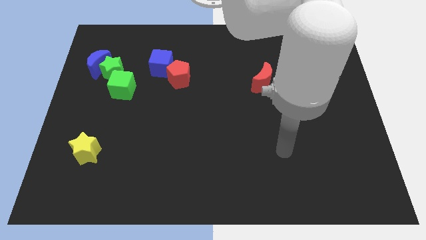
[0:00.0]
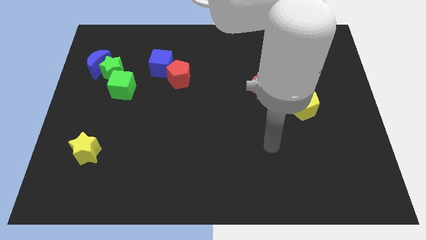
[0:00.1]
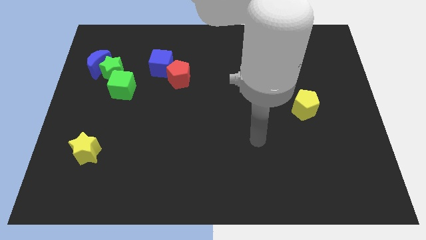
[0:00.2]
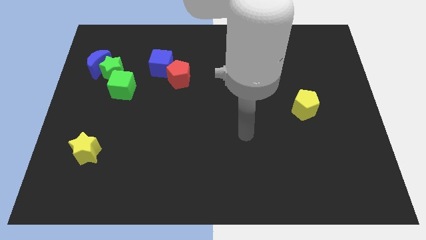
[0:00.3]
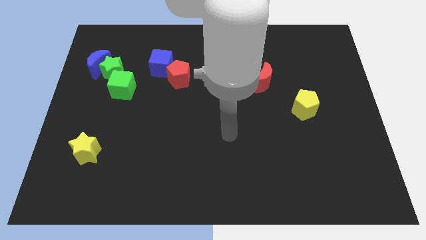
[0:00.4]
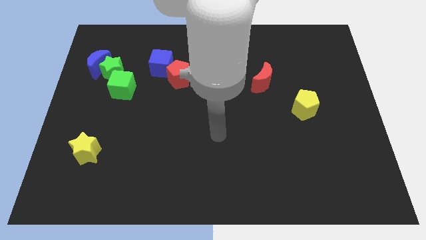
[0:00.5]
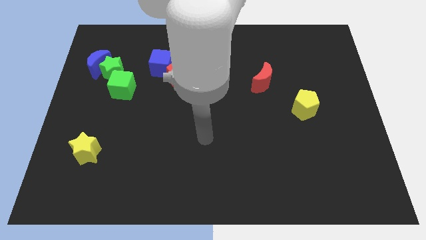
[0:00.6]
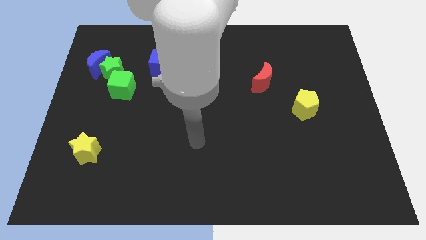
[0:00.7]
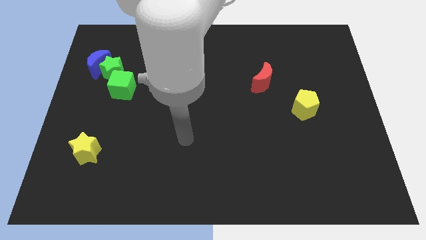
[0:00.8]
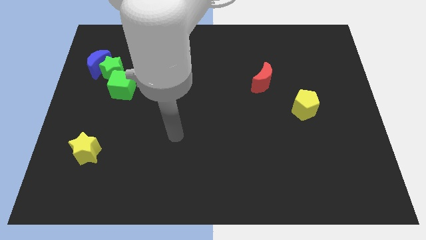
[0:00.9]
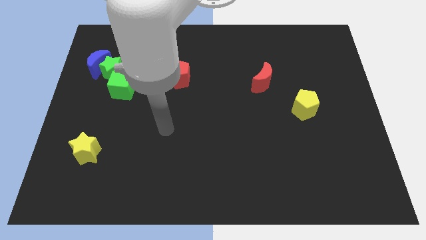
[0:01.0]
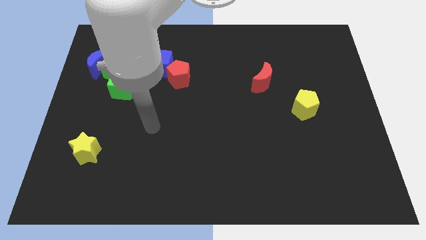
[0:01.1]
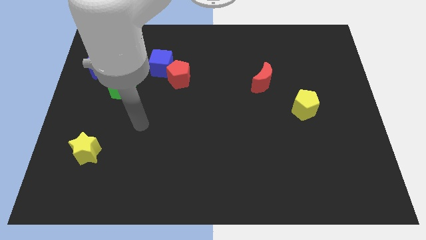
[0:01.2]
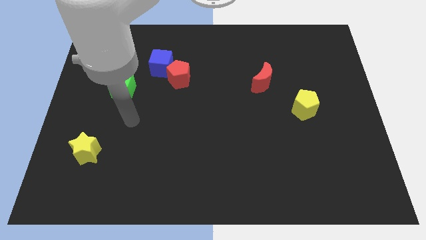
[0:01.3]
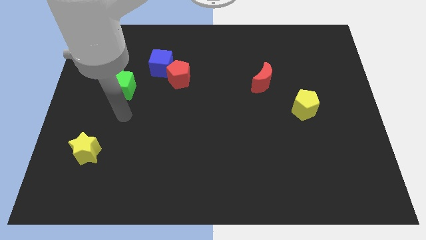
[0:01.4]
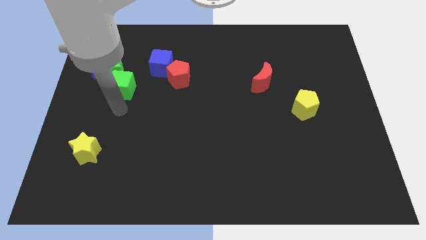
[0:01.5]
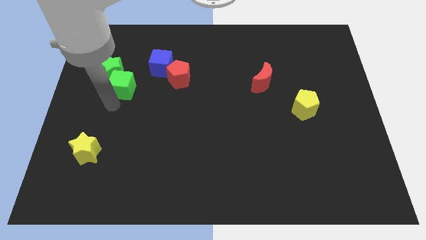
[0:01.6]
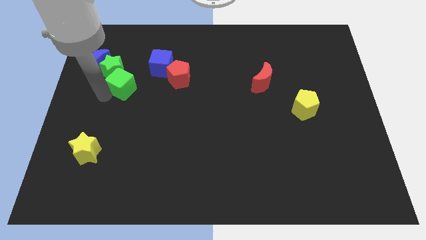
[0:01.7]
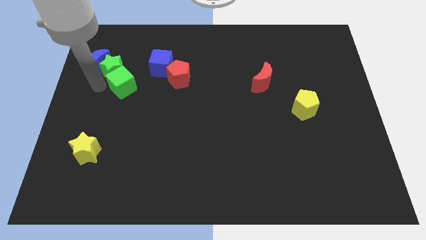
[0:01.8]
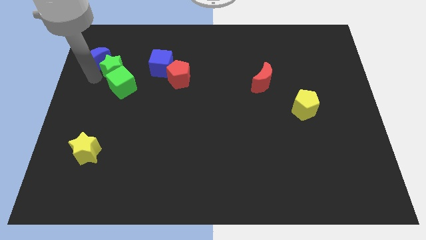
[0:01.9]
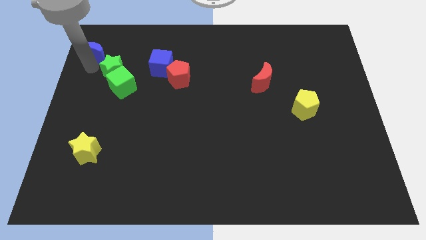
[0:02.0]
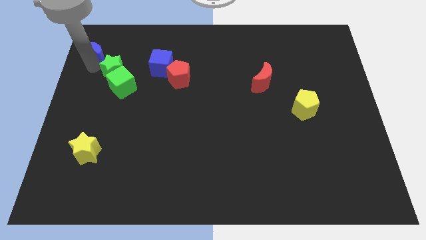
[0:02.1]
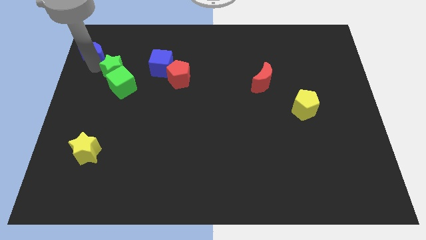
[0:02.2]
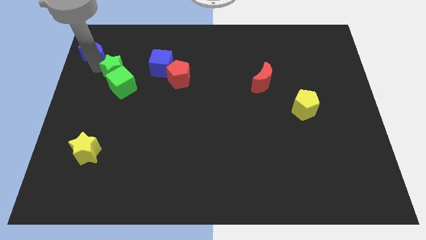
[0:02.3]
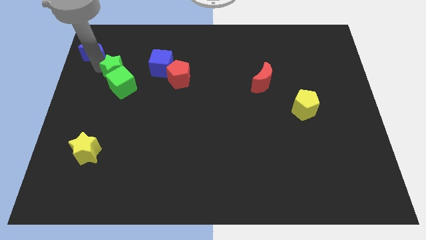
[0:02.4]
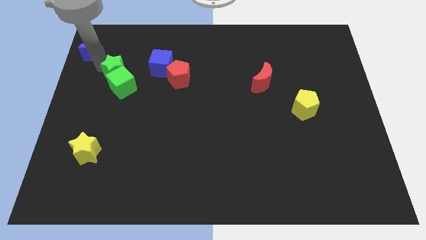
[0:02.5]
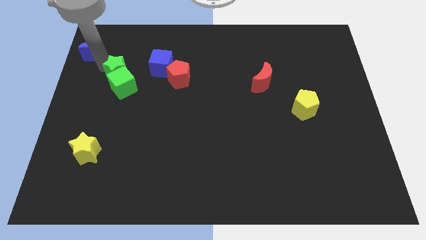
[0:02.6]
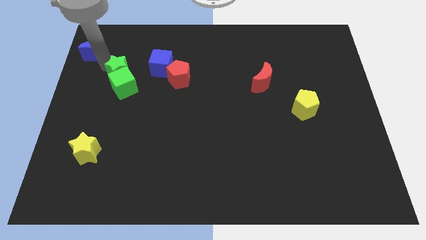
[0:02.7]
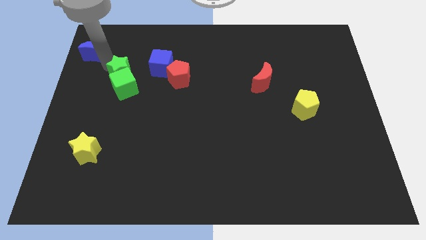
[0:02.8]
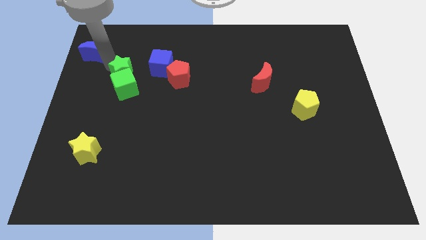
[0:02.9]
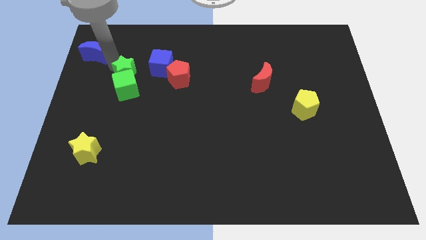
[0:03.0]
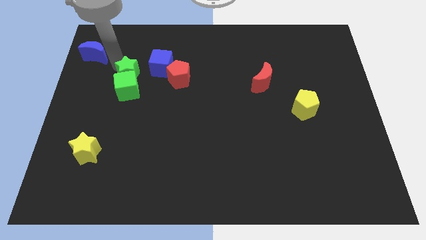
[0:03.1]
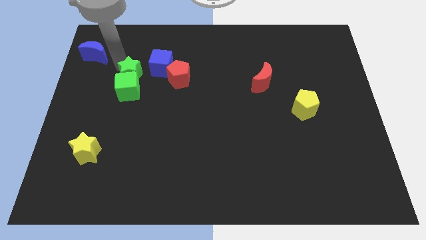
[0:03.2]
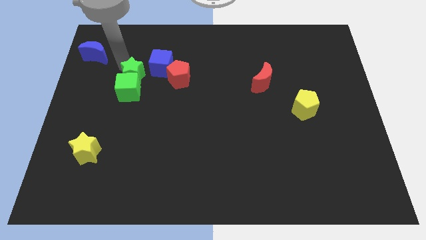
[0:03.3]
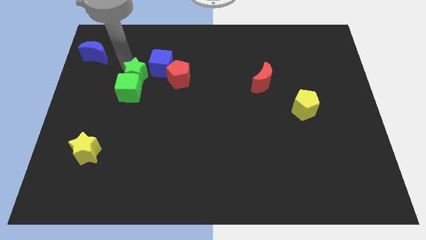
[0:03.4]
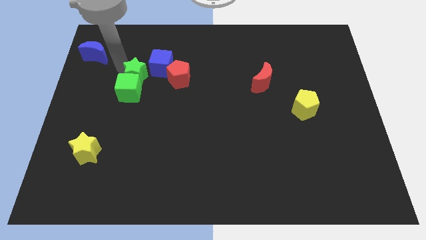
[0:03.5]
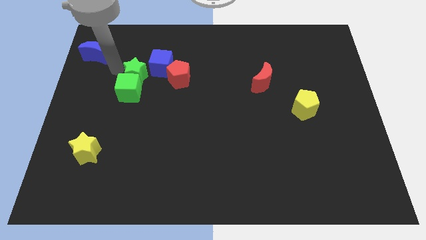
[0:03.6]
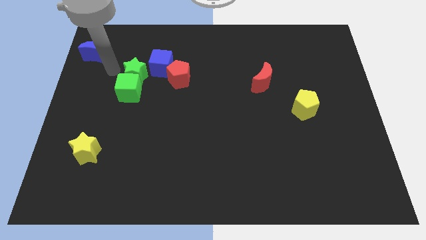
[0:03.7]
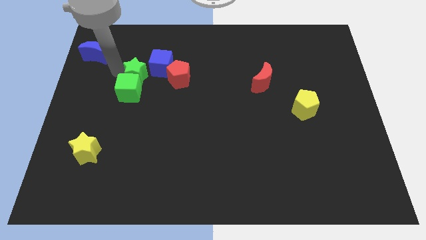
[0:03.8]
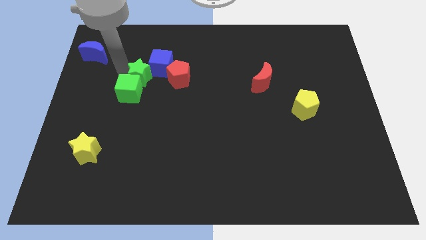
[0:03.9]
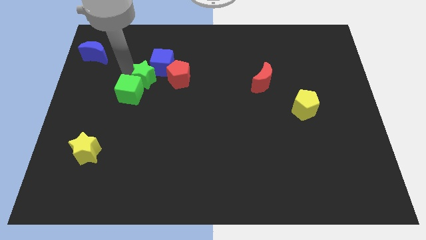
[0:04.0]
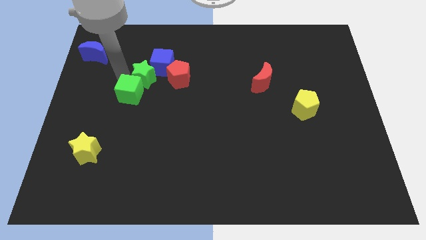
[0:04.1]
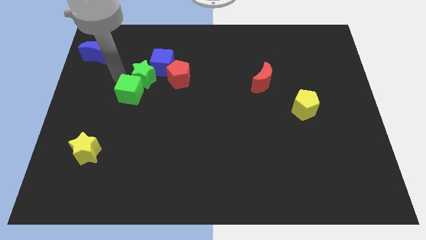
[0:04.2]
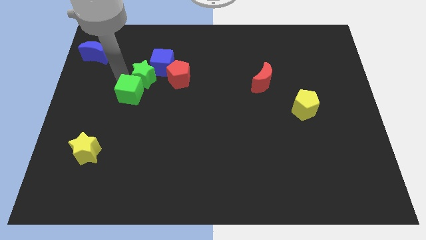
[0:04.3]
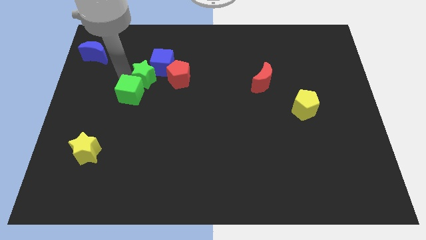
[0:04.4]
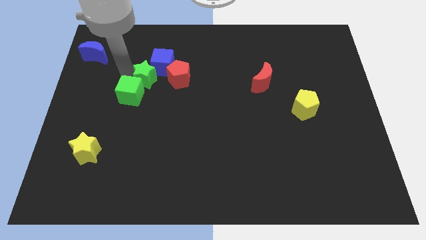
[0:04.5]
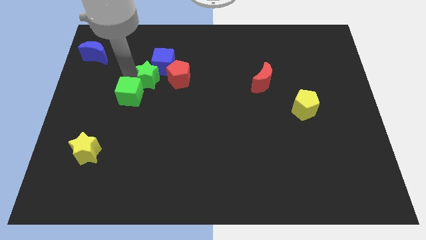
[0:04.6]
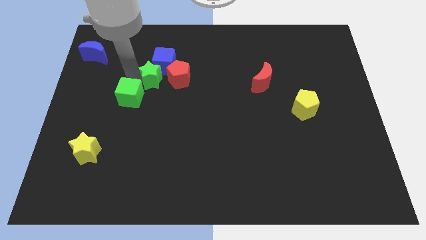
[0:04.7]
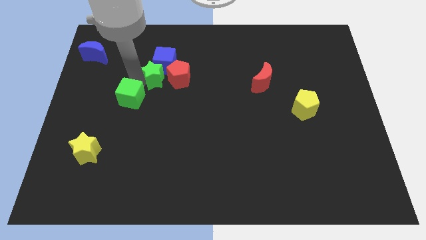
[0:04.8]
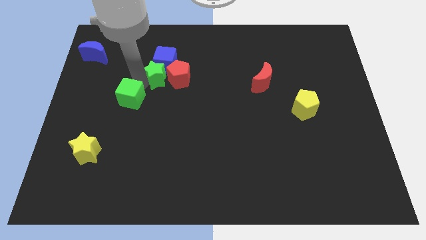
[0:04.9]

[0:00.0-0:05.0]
push the green star towards the red pentagon

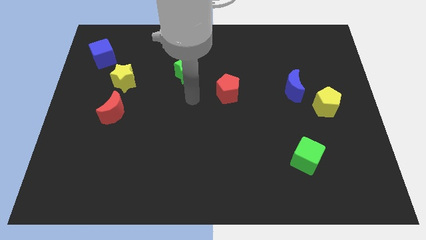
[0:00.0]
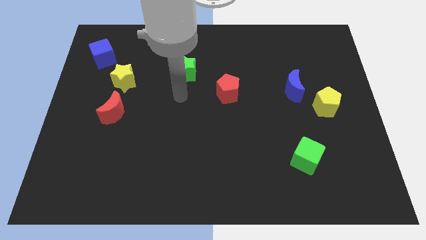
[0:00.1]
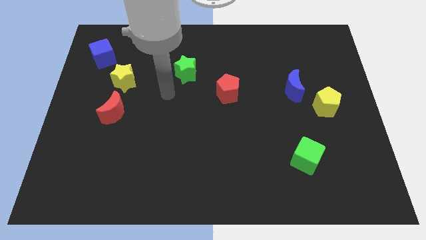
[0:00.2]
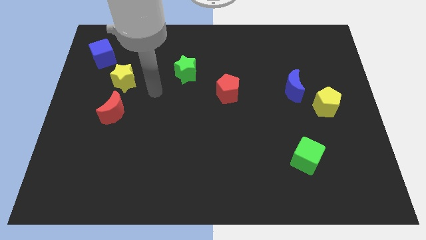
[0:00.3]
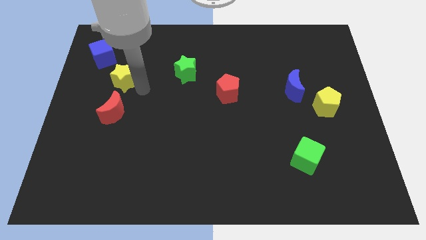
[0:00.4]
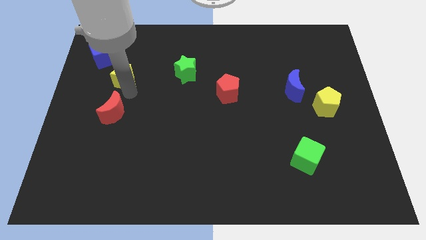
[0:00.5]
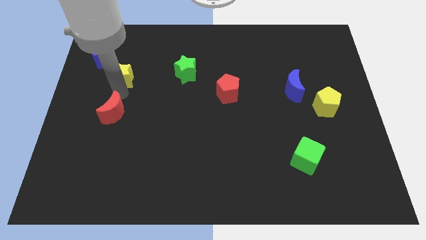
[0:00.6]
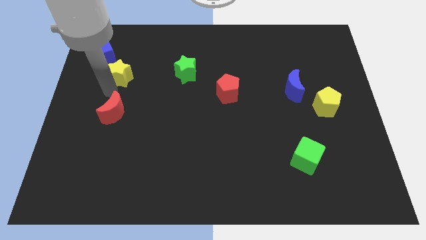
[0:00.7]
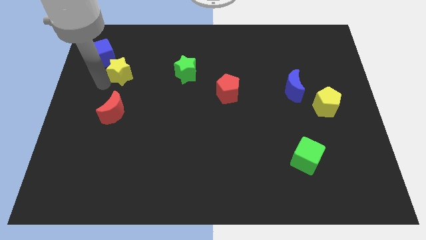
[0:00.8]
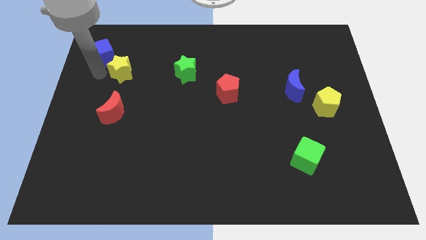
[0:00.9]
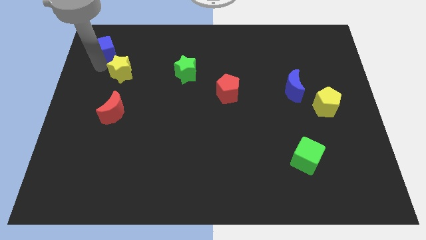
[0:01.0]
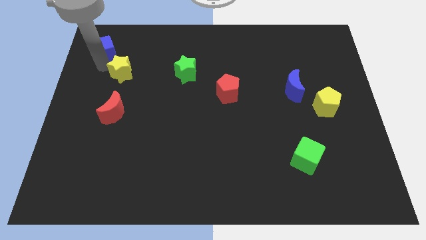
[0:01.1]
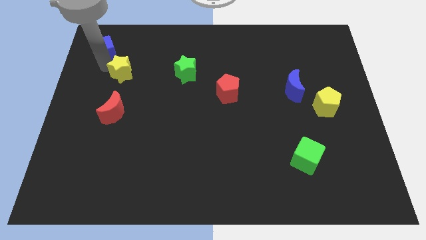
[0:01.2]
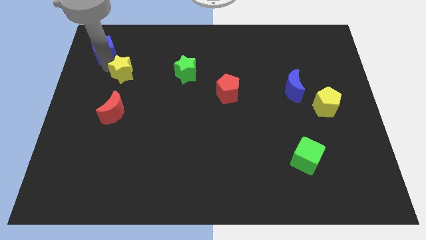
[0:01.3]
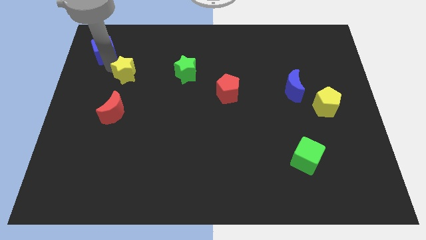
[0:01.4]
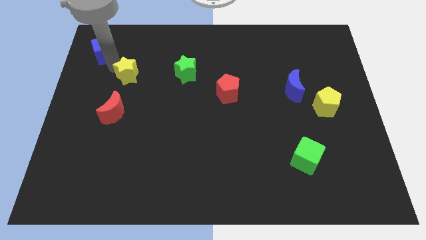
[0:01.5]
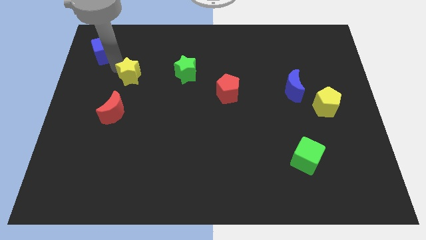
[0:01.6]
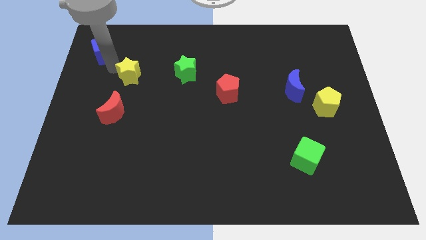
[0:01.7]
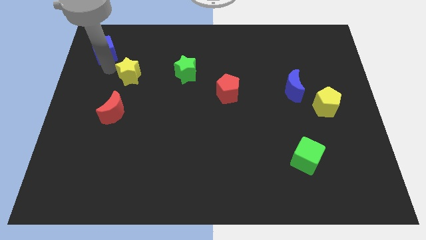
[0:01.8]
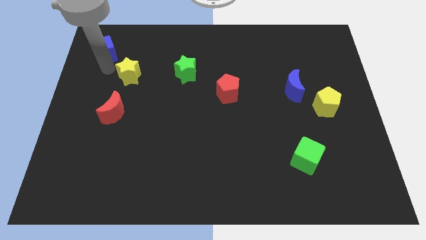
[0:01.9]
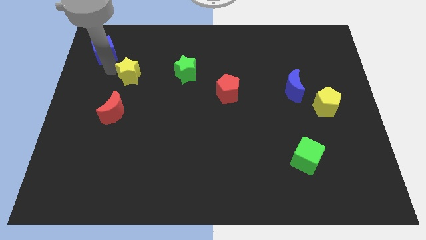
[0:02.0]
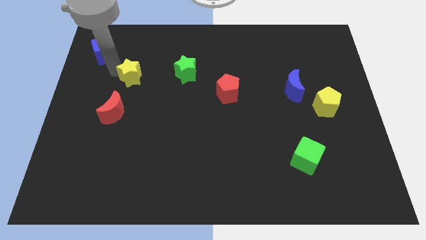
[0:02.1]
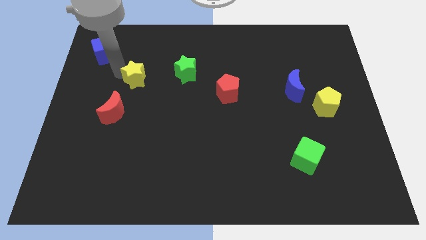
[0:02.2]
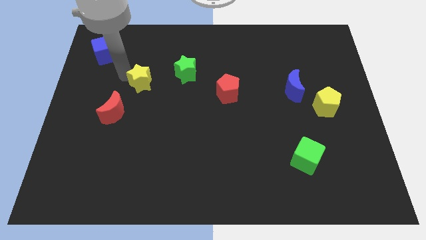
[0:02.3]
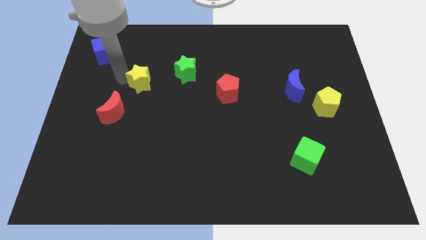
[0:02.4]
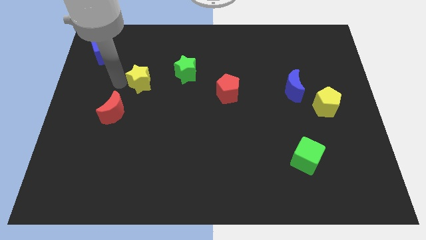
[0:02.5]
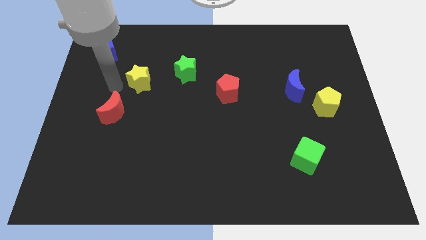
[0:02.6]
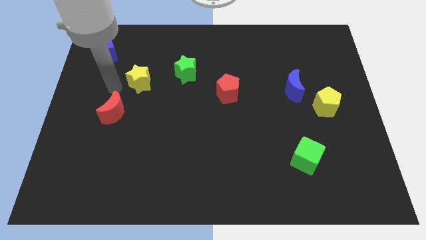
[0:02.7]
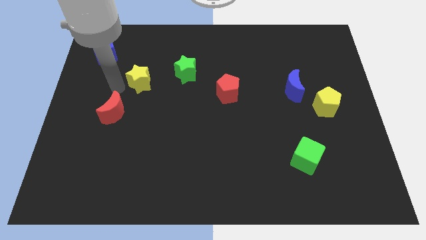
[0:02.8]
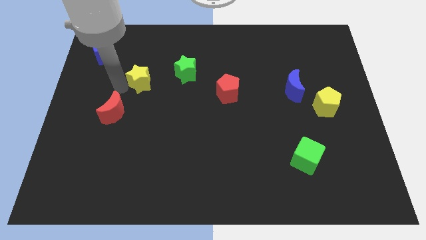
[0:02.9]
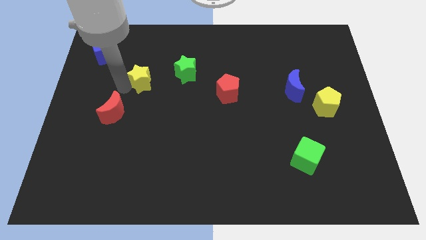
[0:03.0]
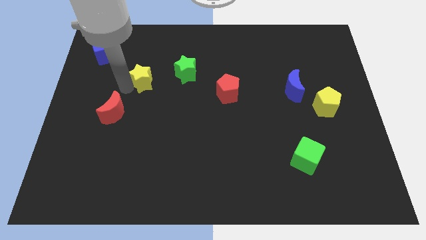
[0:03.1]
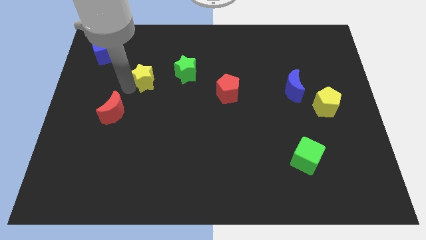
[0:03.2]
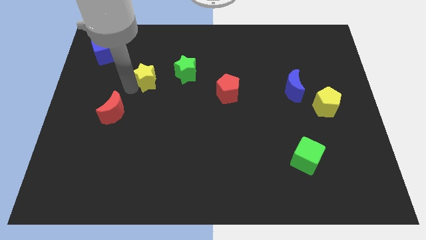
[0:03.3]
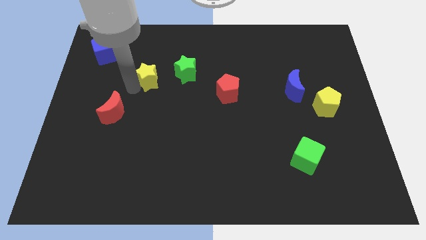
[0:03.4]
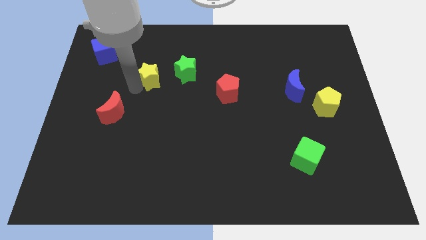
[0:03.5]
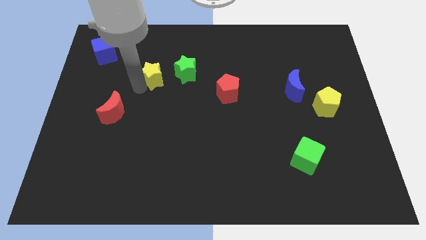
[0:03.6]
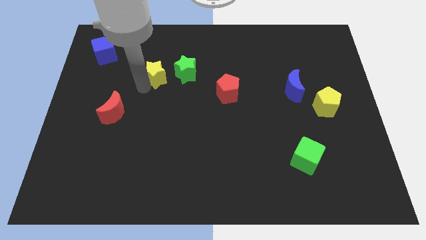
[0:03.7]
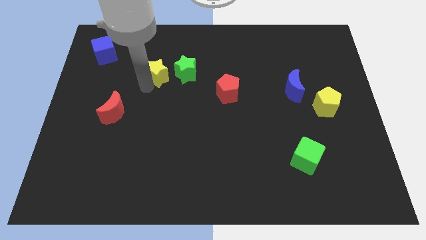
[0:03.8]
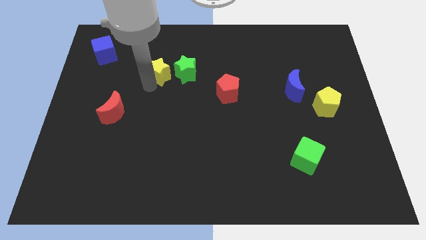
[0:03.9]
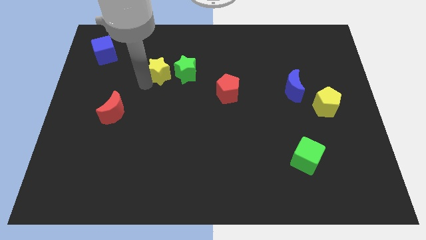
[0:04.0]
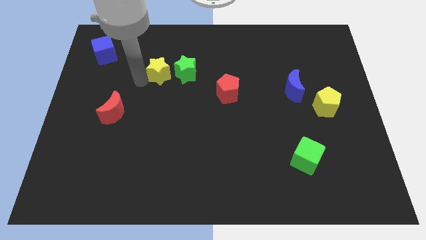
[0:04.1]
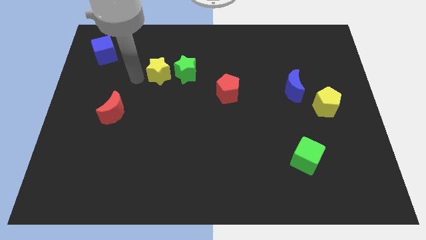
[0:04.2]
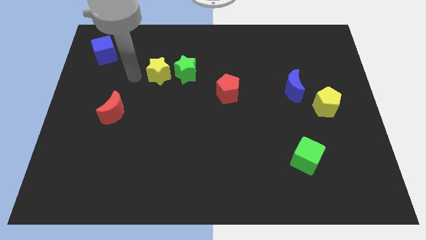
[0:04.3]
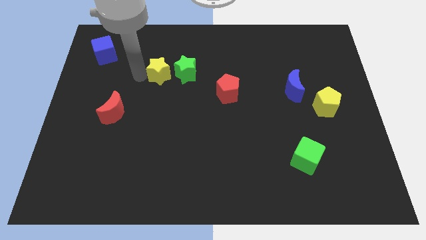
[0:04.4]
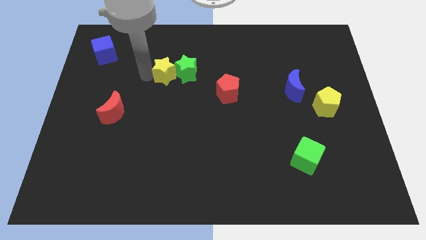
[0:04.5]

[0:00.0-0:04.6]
move the yellow star next to the green star
